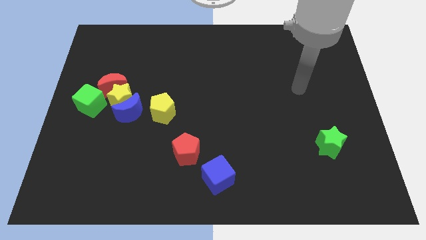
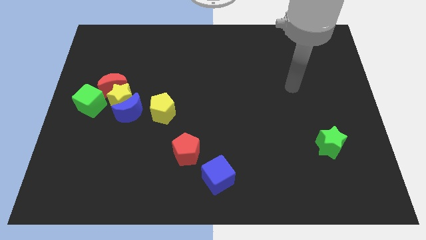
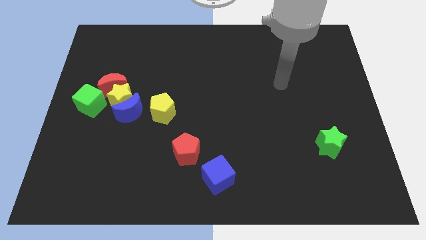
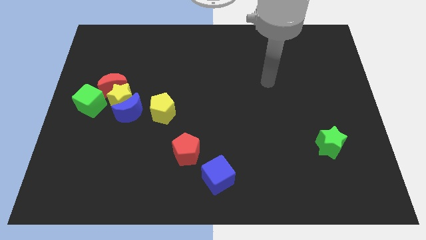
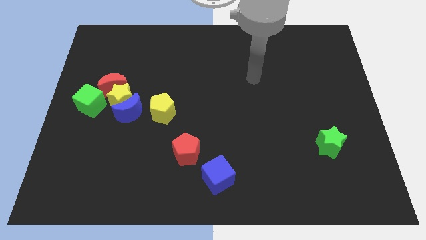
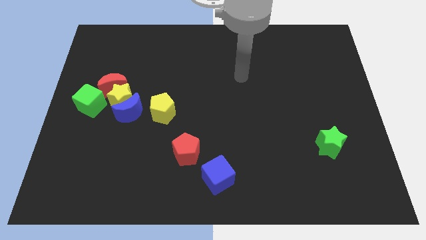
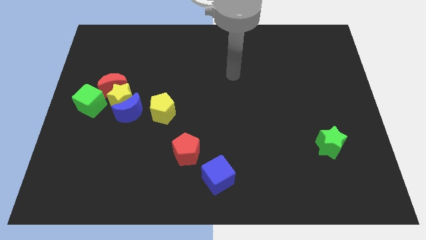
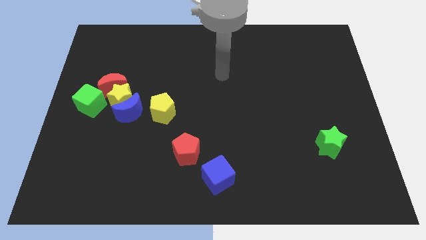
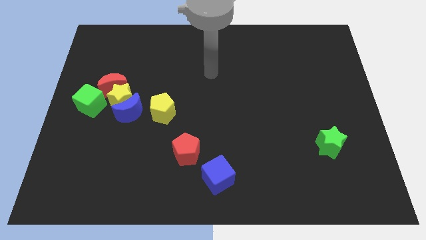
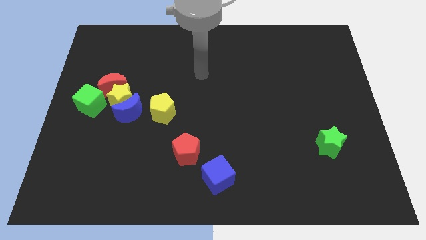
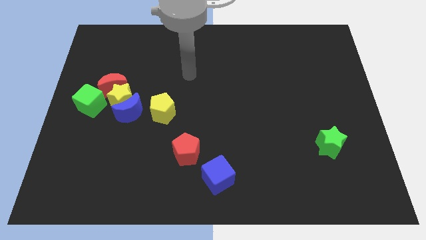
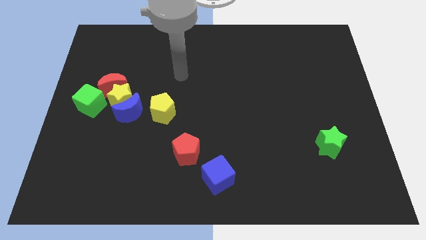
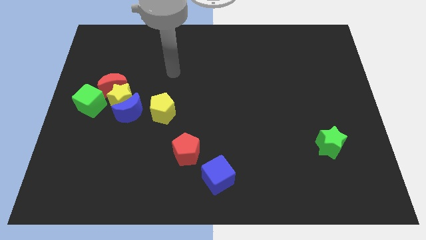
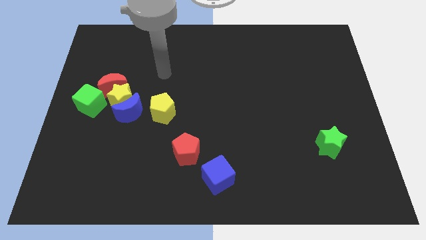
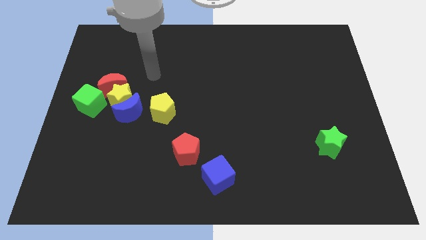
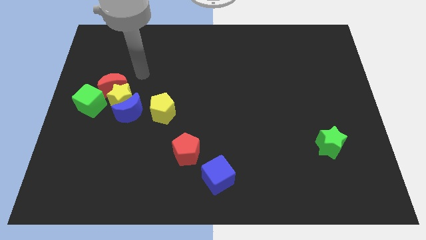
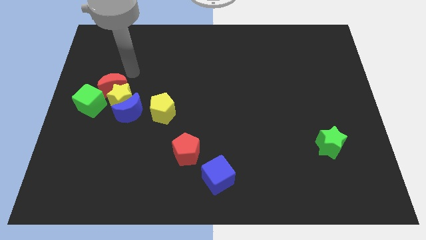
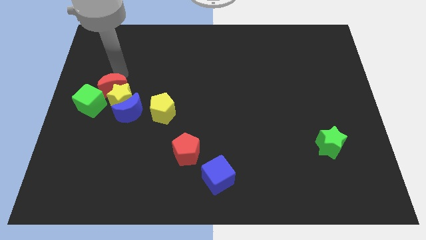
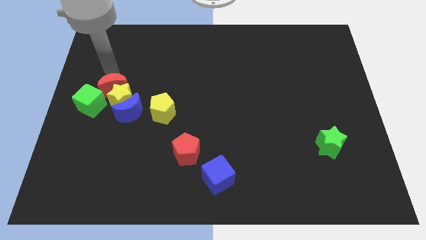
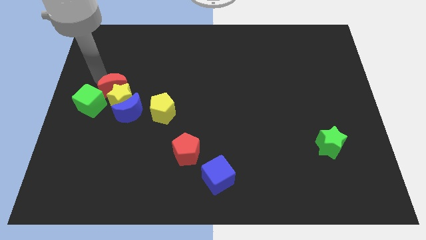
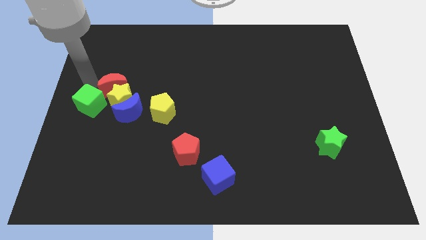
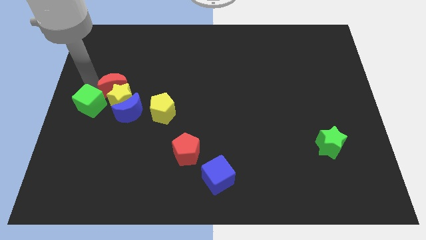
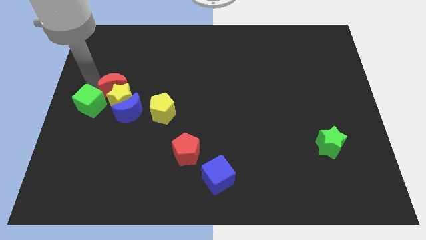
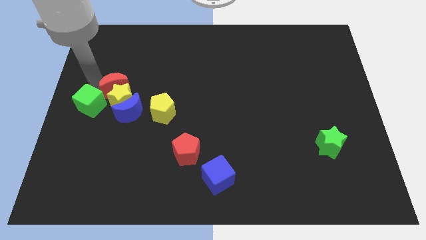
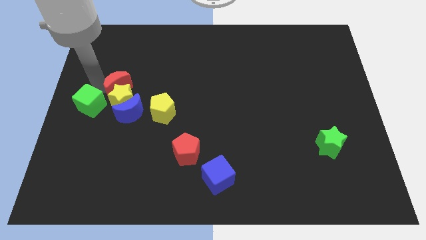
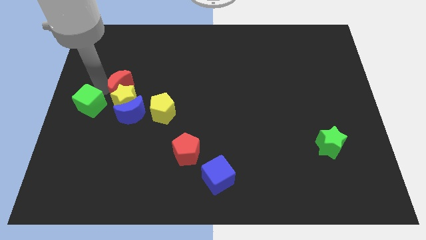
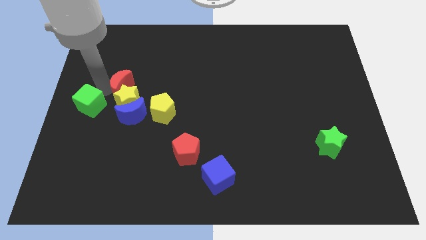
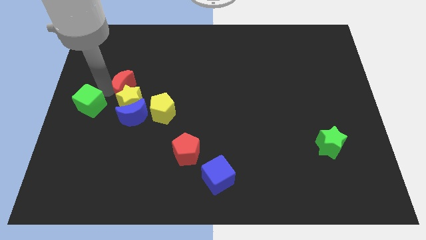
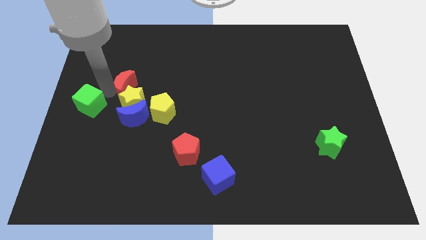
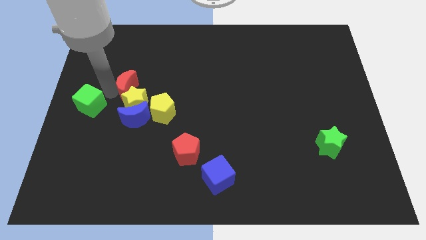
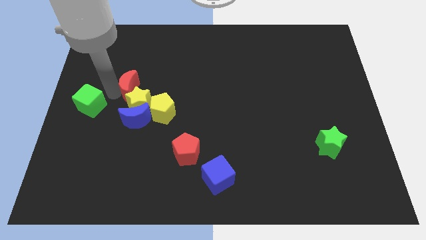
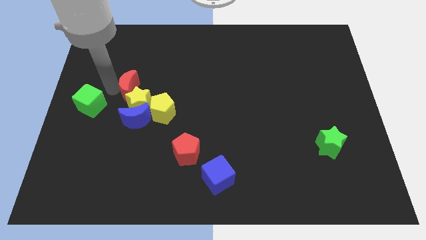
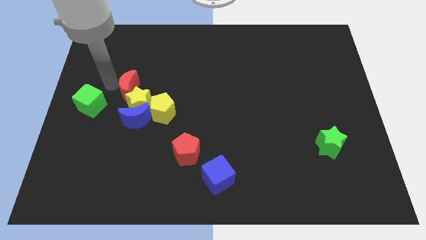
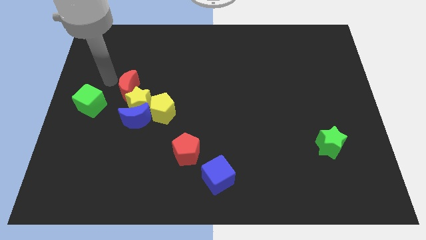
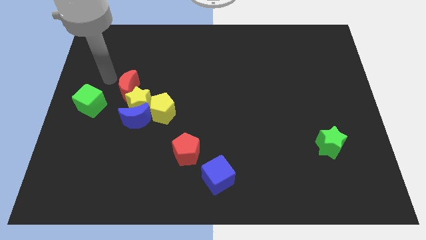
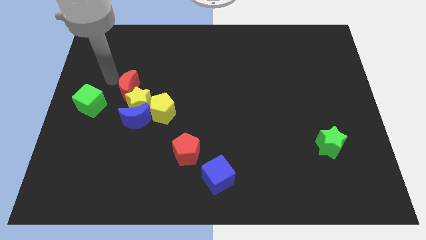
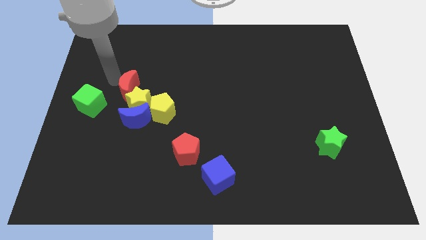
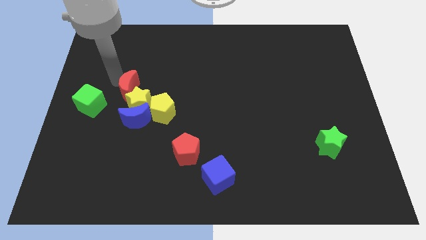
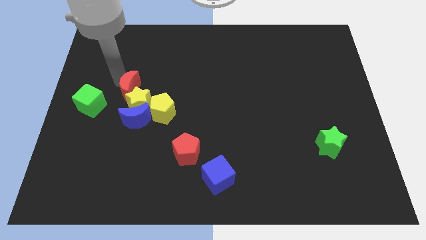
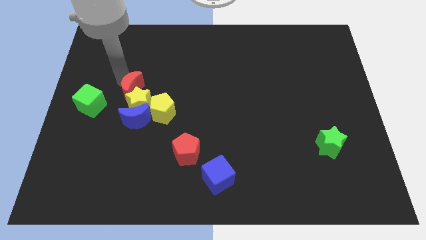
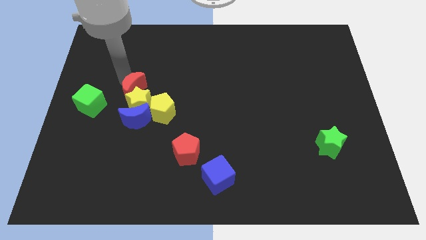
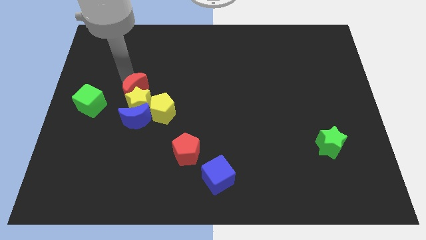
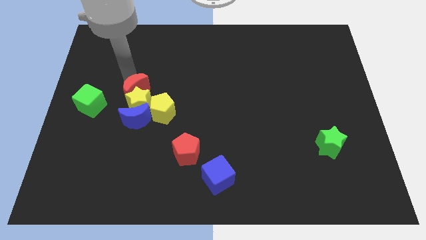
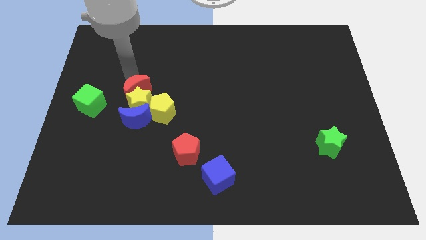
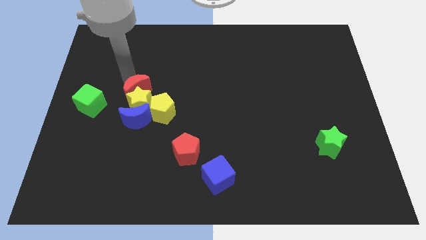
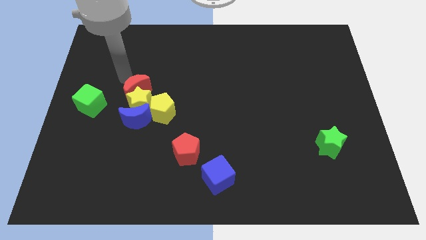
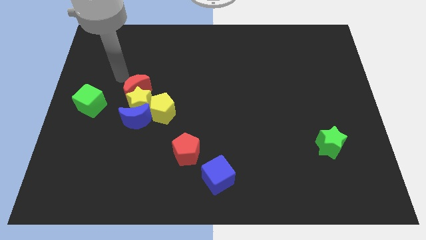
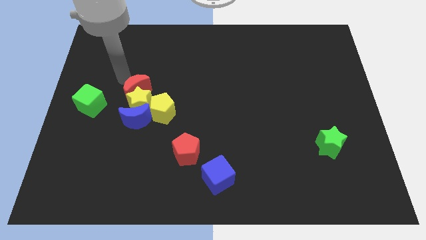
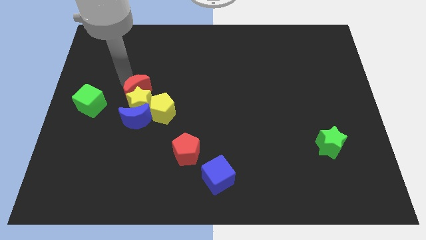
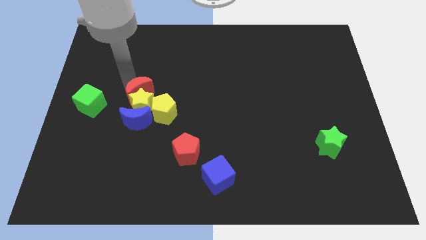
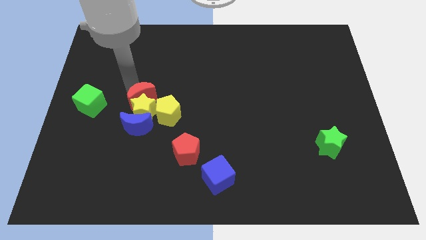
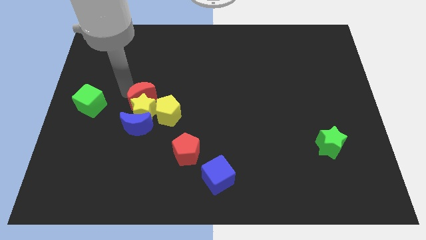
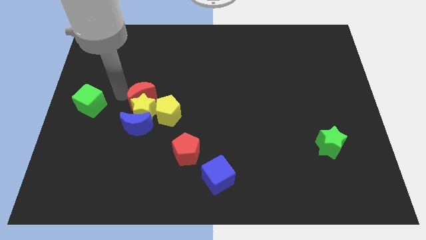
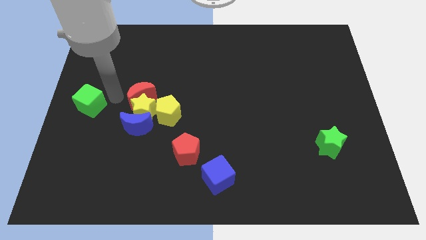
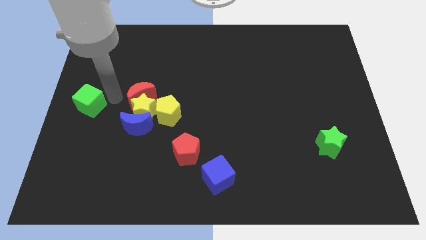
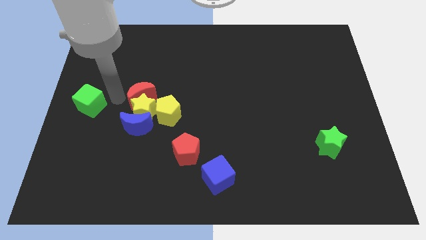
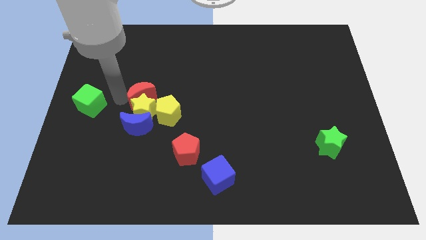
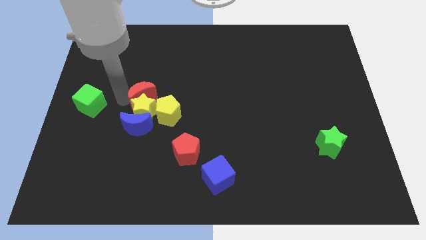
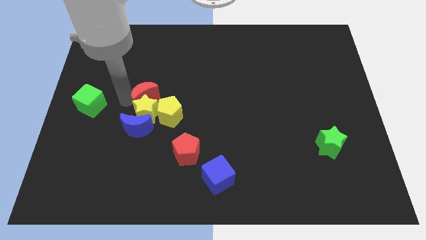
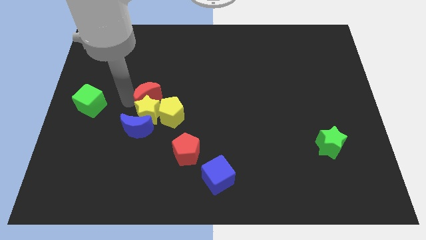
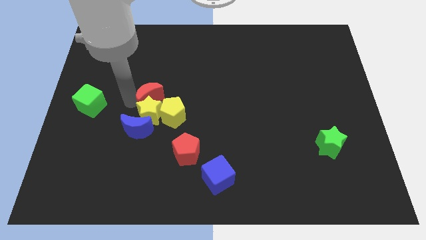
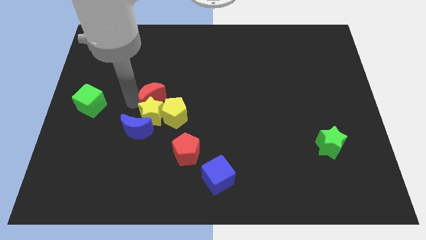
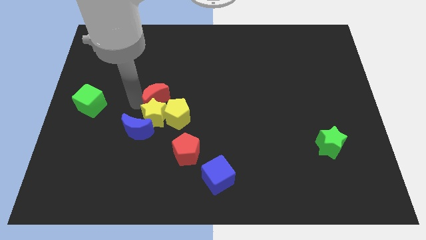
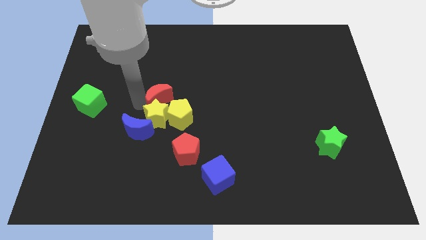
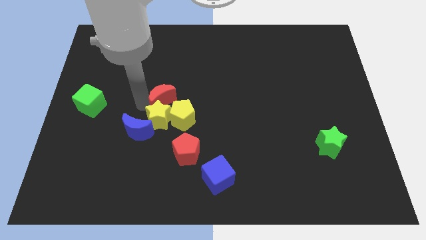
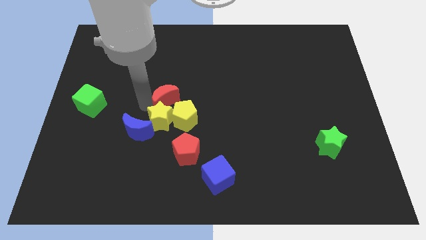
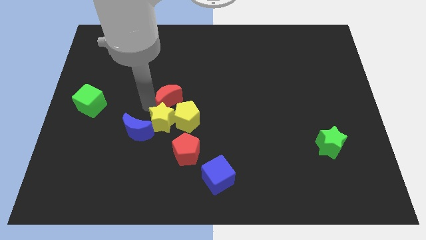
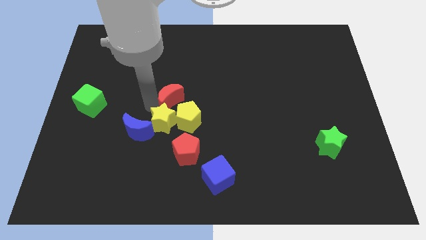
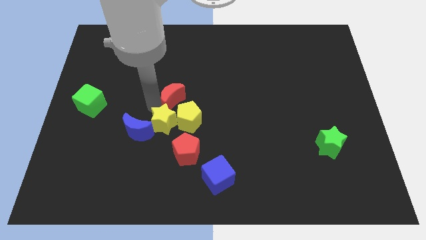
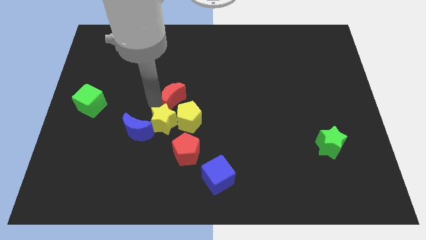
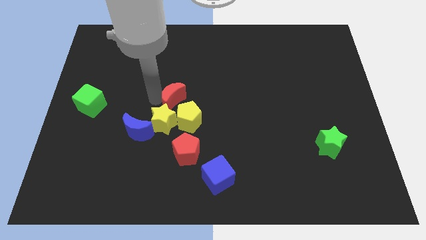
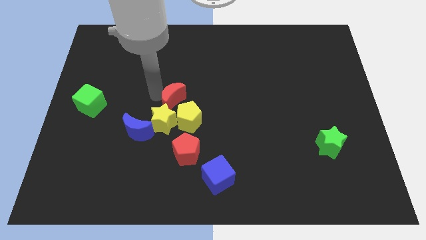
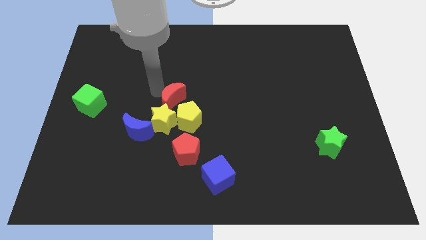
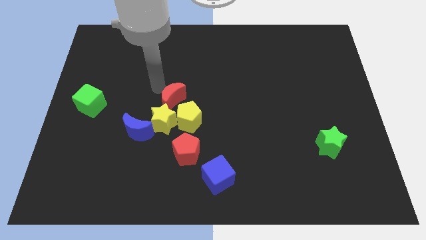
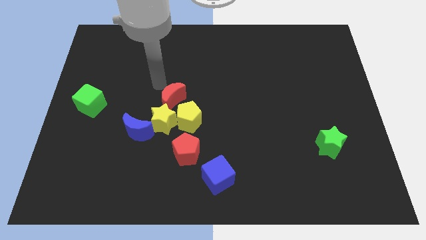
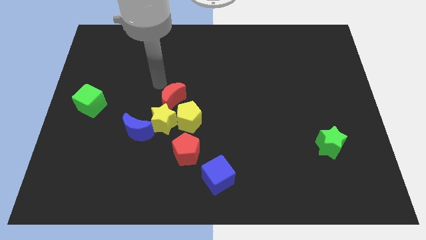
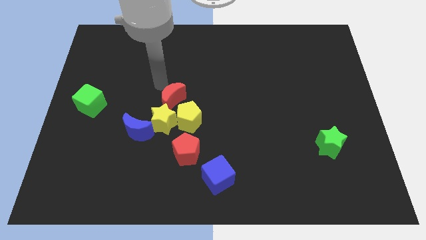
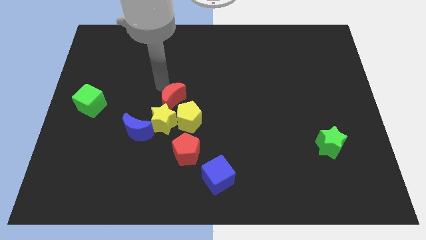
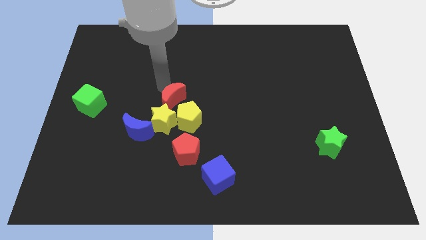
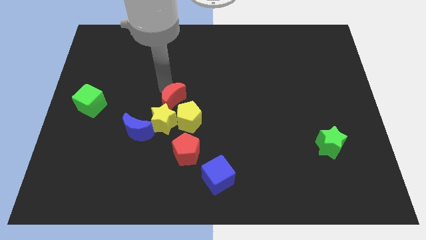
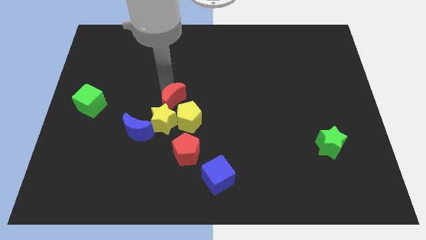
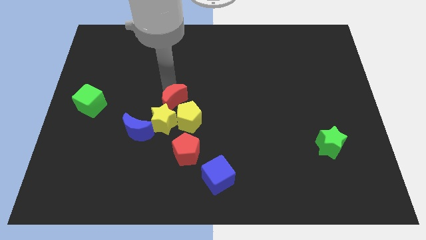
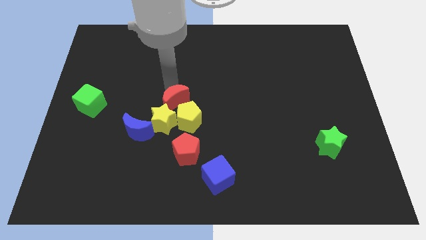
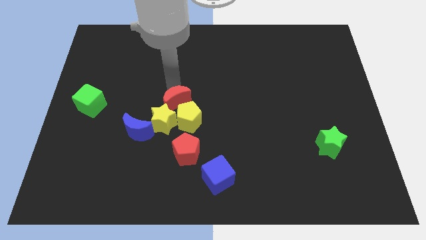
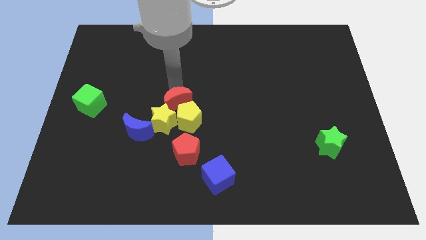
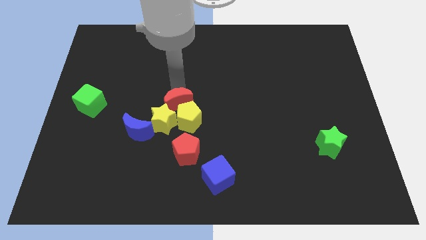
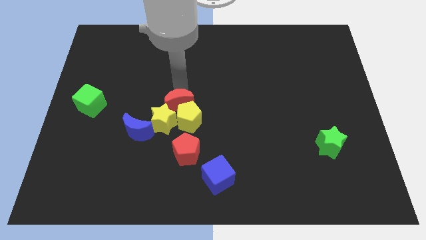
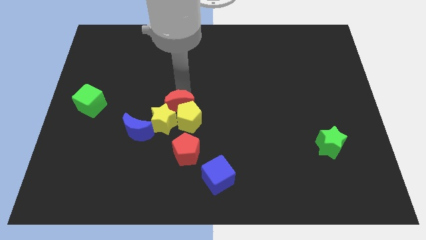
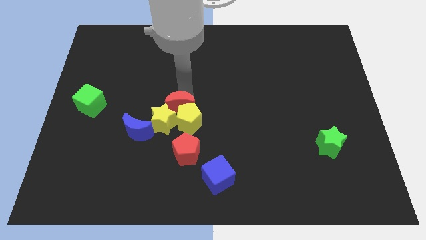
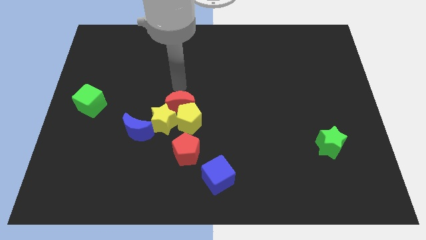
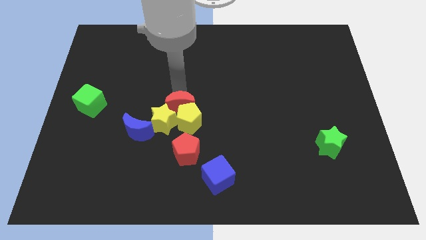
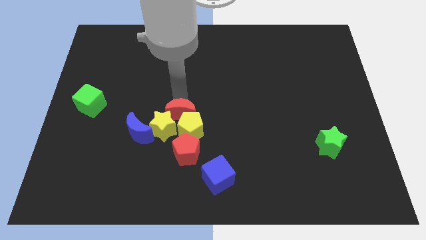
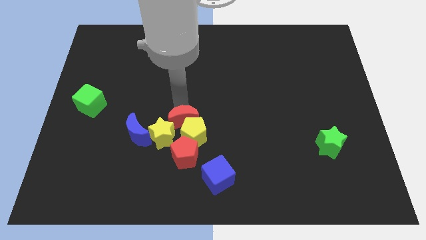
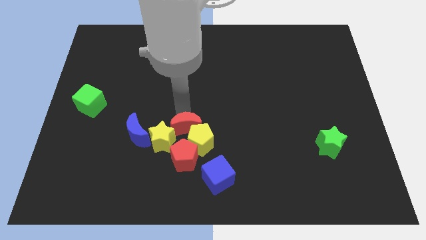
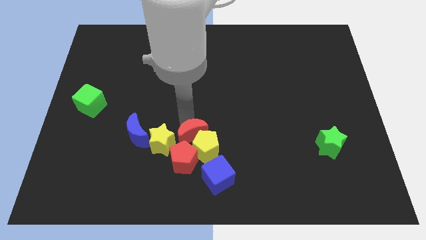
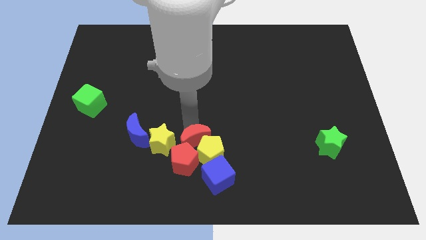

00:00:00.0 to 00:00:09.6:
push the red moon close to the red pentagon
